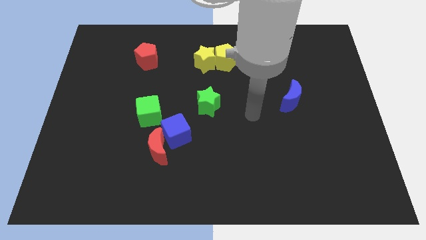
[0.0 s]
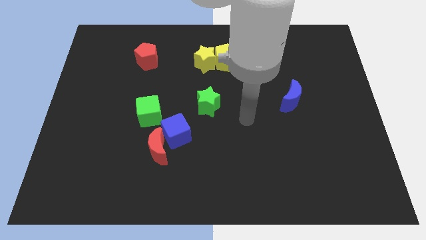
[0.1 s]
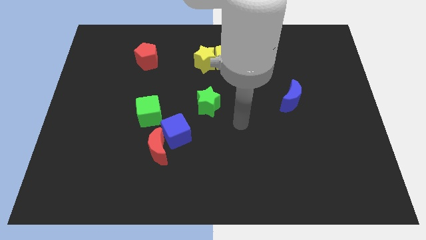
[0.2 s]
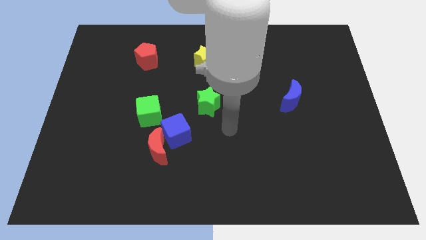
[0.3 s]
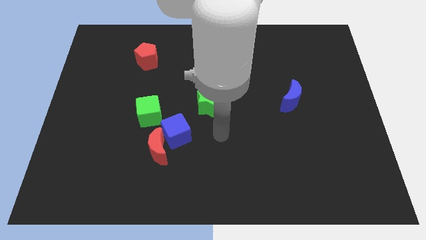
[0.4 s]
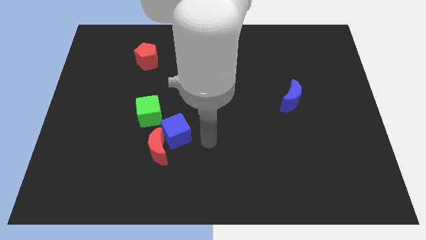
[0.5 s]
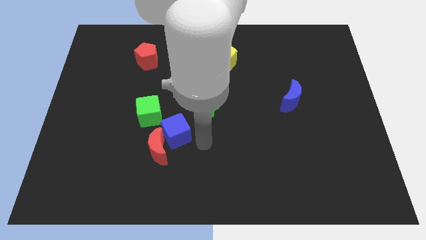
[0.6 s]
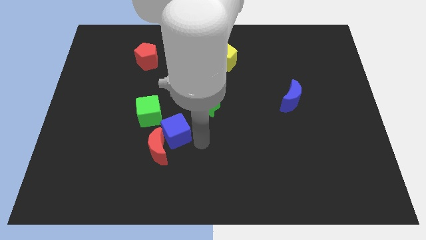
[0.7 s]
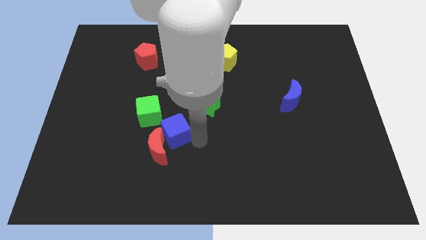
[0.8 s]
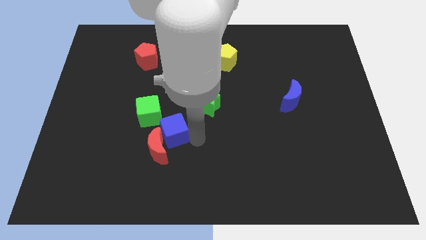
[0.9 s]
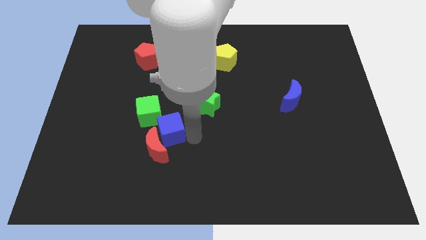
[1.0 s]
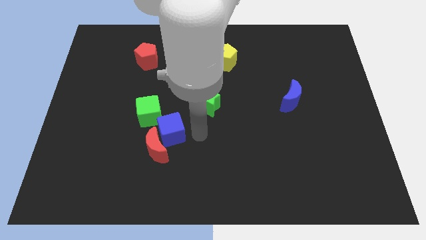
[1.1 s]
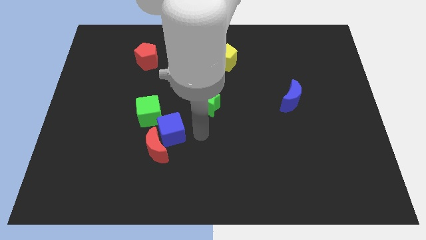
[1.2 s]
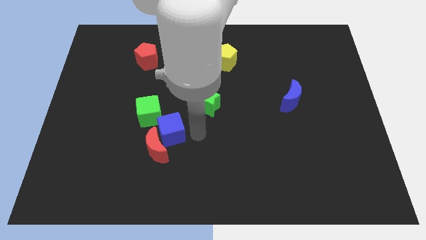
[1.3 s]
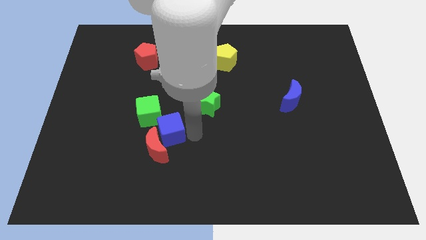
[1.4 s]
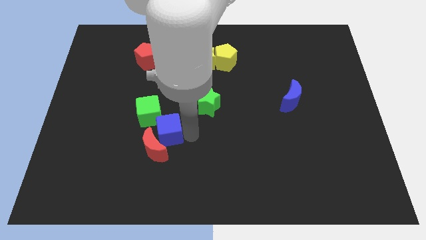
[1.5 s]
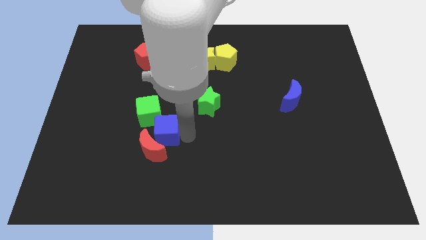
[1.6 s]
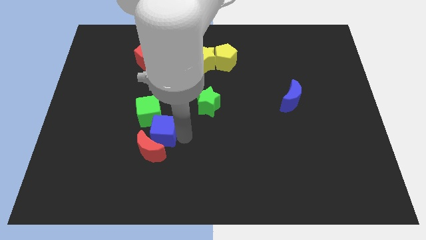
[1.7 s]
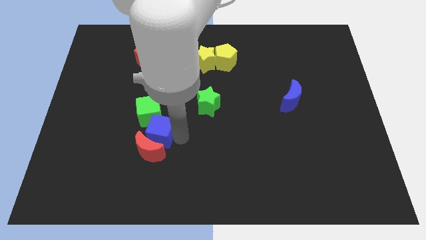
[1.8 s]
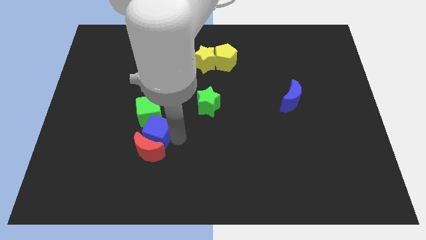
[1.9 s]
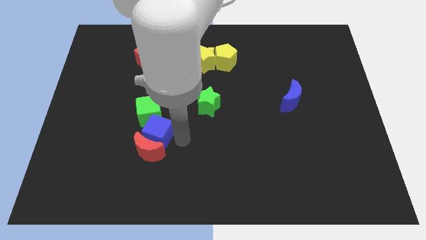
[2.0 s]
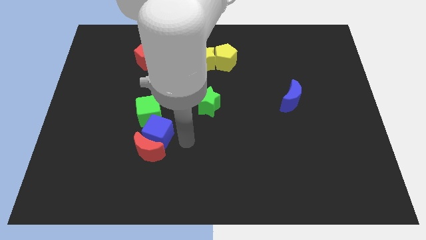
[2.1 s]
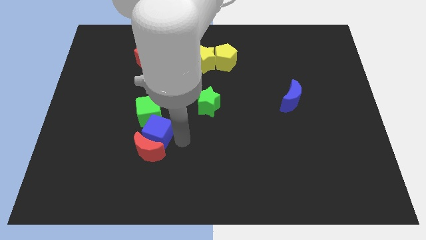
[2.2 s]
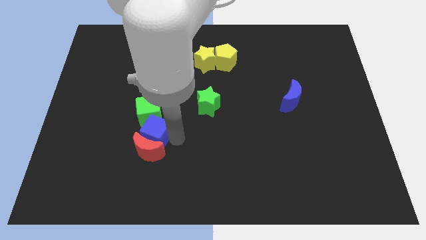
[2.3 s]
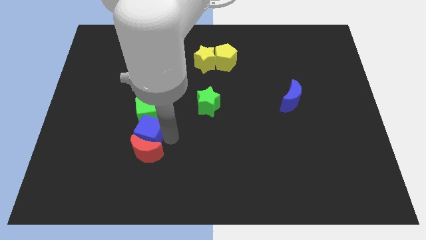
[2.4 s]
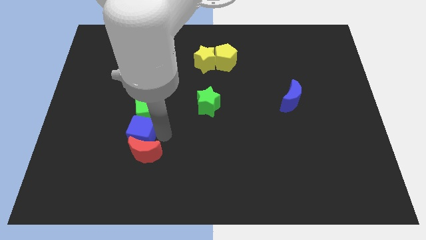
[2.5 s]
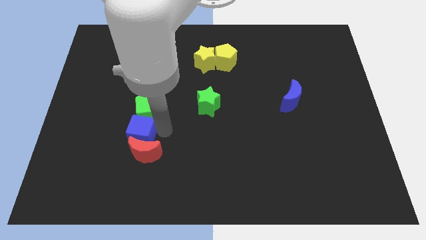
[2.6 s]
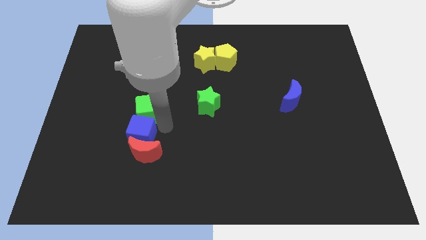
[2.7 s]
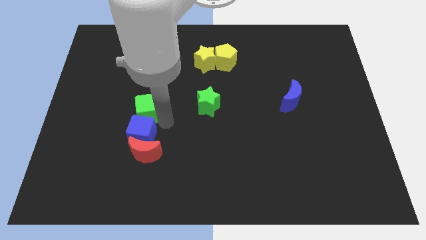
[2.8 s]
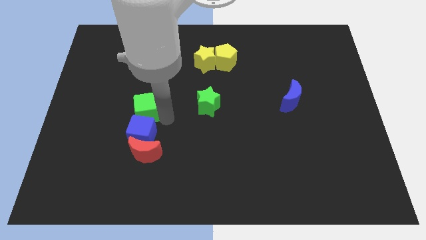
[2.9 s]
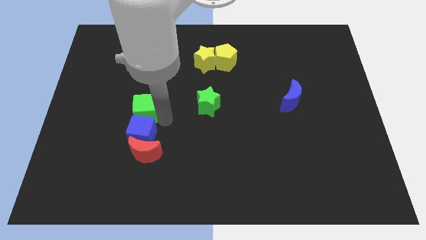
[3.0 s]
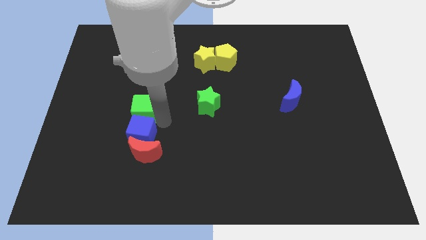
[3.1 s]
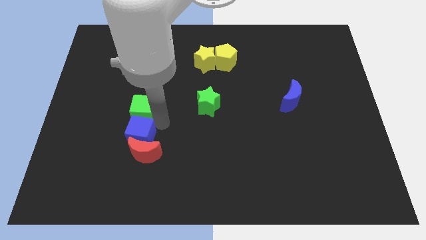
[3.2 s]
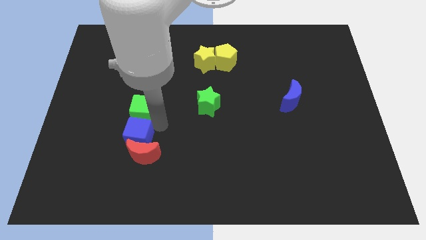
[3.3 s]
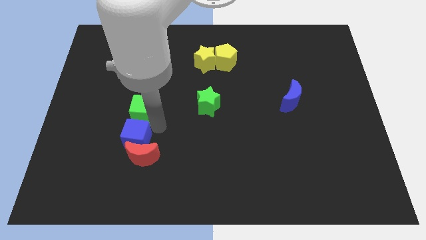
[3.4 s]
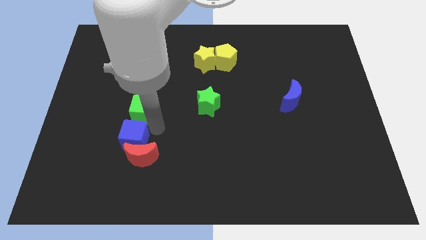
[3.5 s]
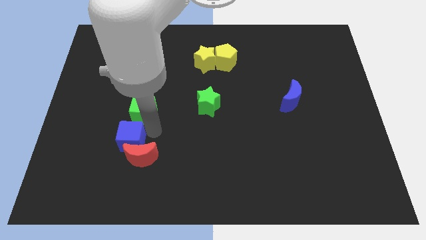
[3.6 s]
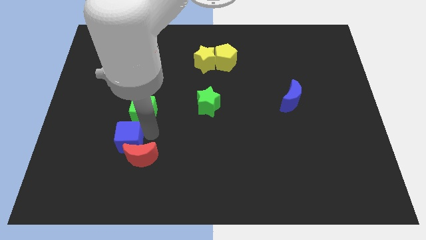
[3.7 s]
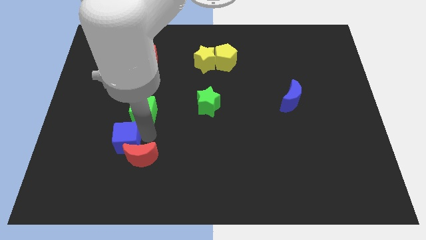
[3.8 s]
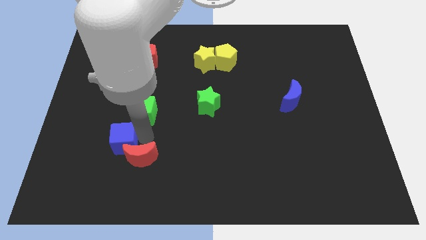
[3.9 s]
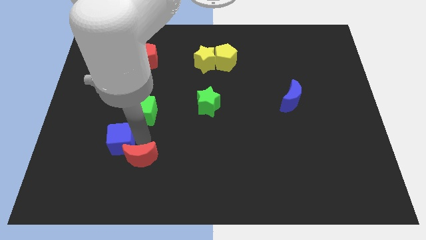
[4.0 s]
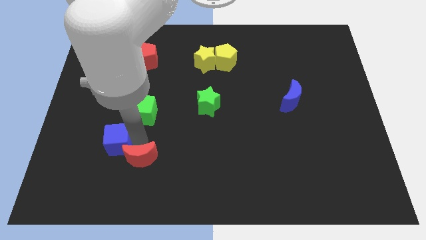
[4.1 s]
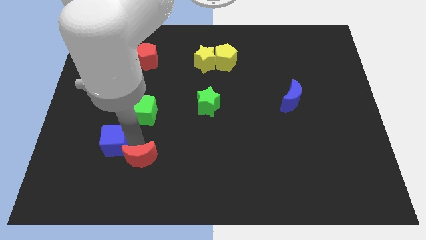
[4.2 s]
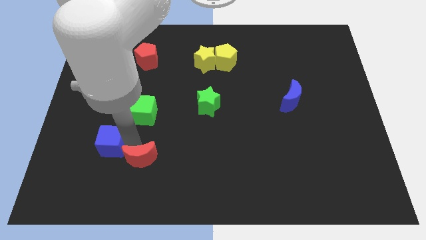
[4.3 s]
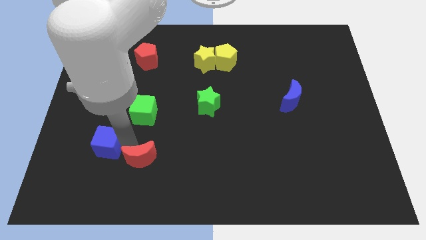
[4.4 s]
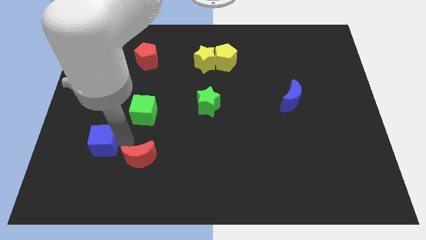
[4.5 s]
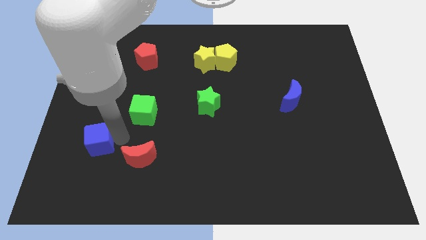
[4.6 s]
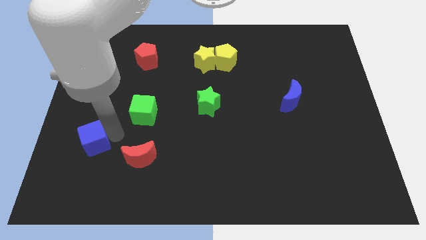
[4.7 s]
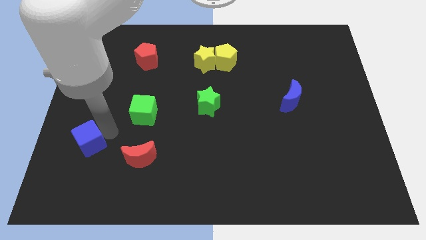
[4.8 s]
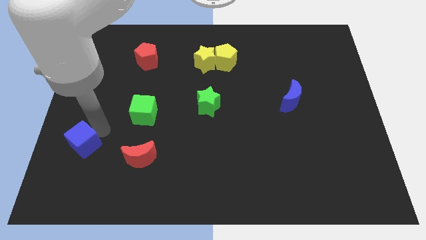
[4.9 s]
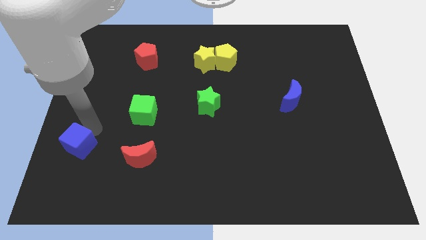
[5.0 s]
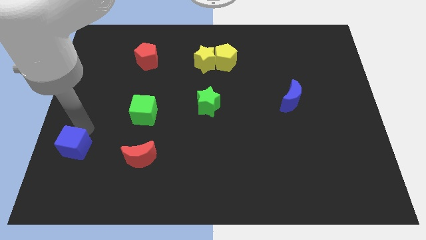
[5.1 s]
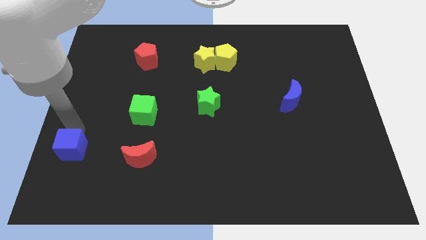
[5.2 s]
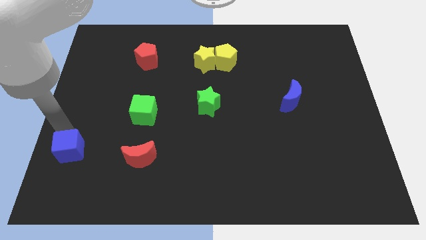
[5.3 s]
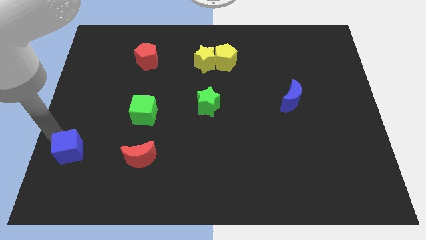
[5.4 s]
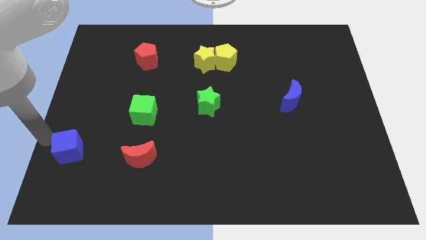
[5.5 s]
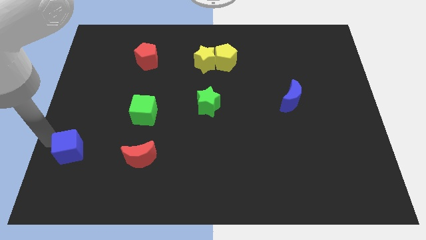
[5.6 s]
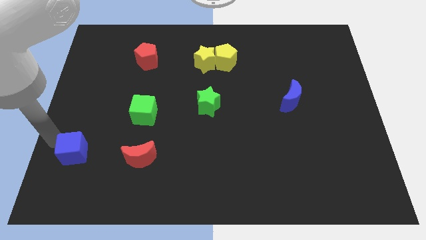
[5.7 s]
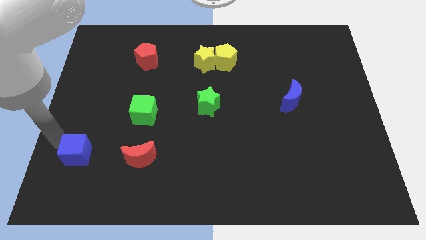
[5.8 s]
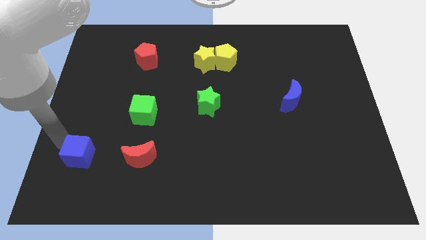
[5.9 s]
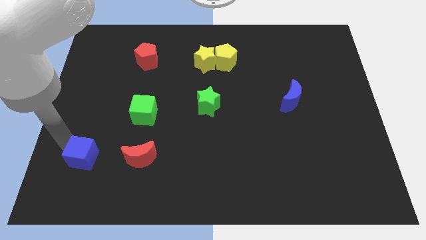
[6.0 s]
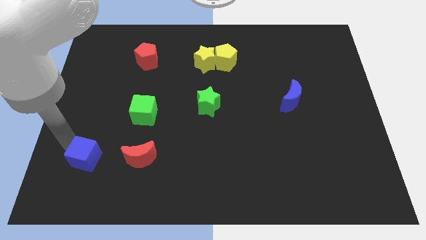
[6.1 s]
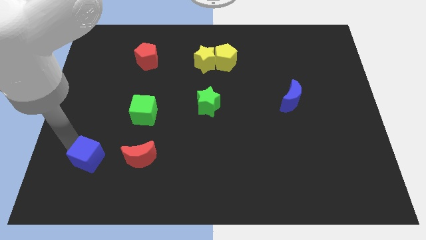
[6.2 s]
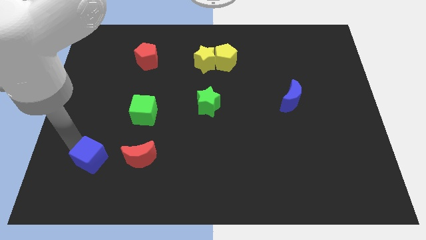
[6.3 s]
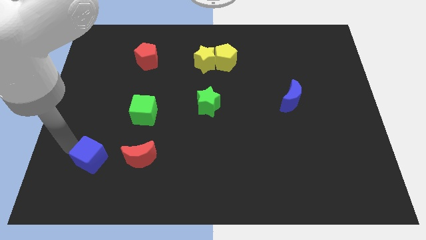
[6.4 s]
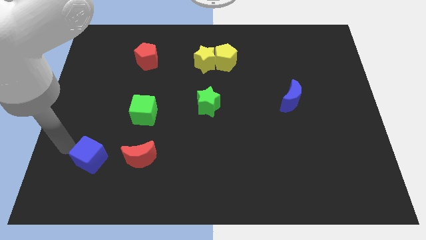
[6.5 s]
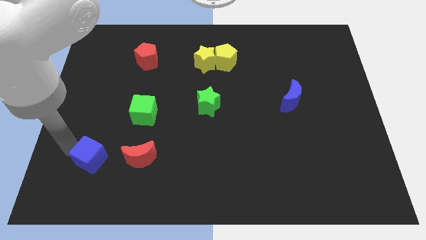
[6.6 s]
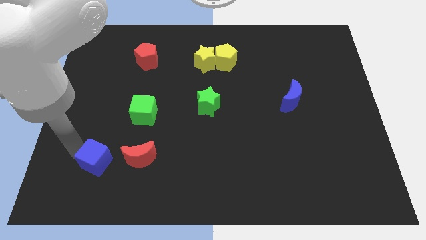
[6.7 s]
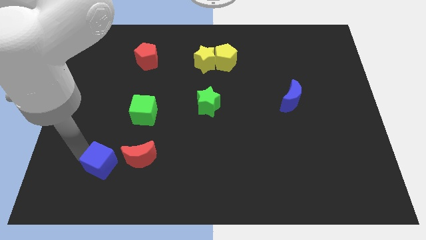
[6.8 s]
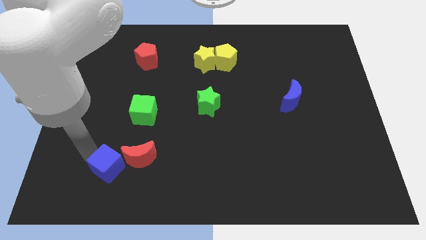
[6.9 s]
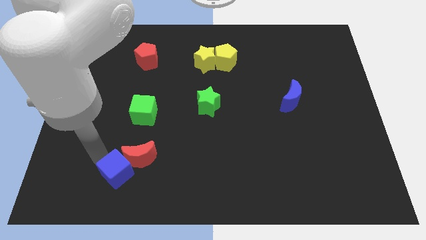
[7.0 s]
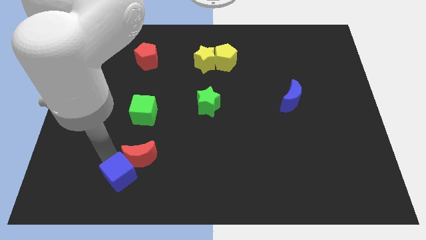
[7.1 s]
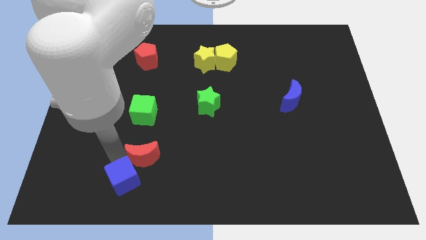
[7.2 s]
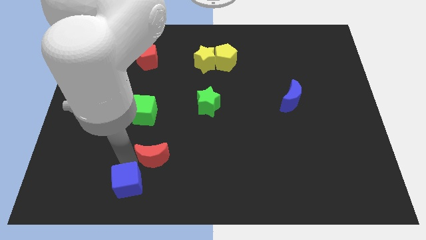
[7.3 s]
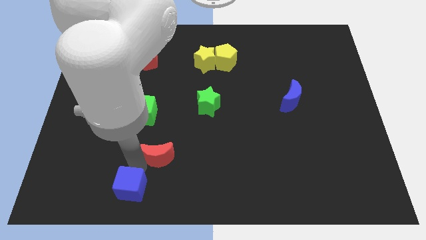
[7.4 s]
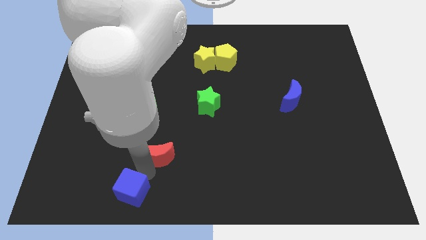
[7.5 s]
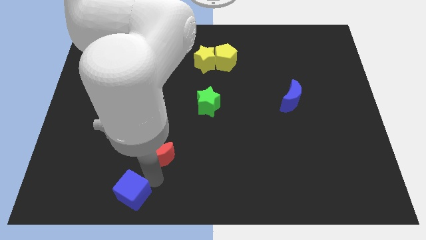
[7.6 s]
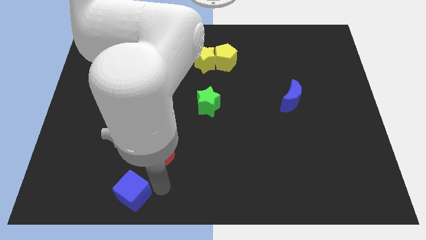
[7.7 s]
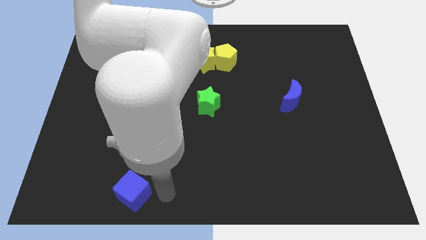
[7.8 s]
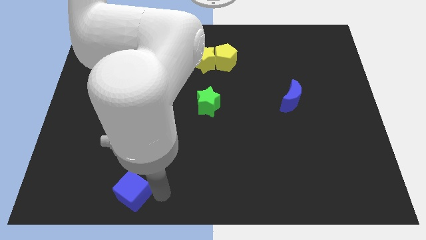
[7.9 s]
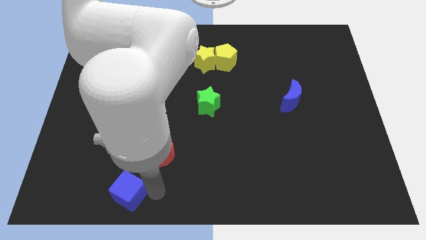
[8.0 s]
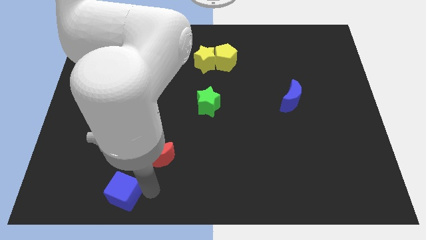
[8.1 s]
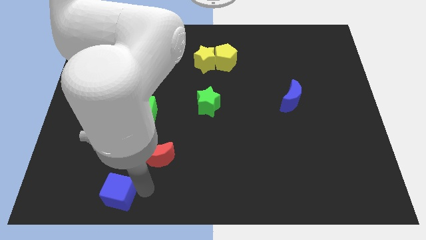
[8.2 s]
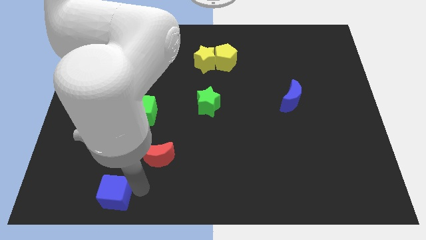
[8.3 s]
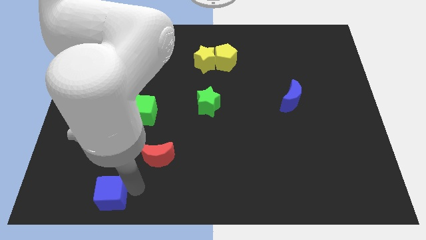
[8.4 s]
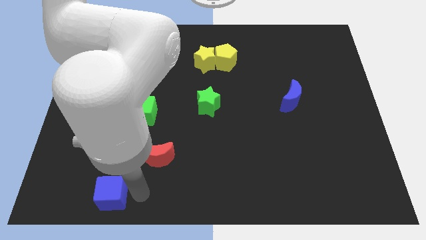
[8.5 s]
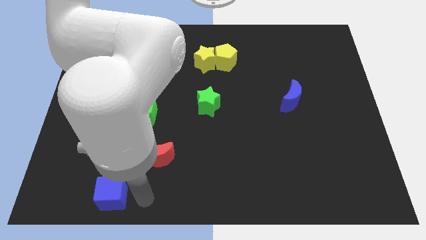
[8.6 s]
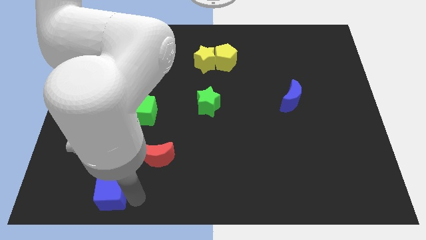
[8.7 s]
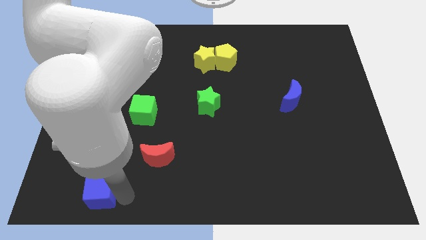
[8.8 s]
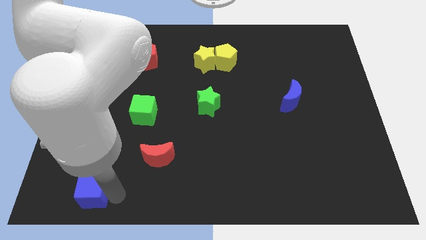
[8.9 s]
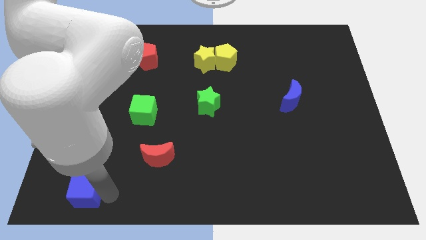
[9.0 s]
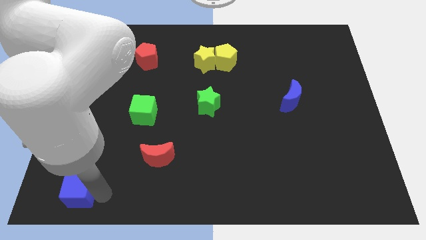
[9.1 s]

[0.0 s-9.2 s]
move the blue cube to the bottom left of the board
